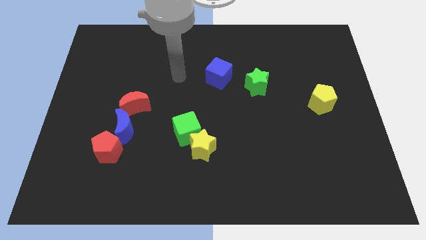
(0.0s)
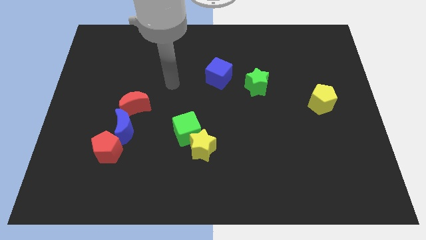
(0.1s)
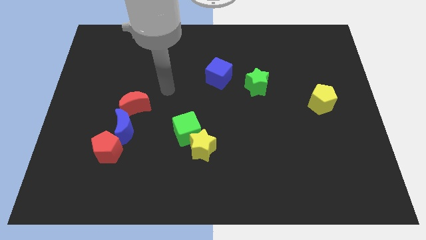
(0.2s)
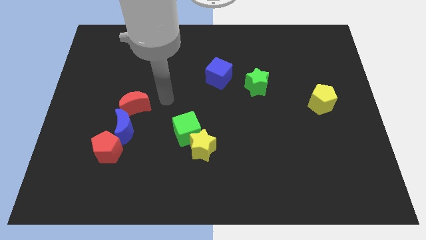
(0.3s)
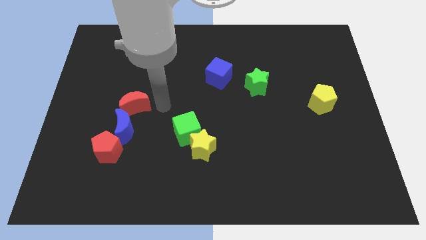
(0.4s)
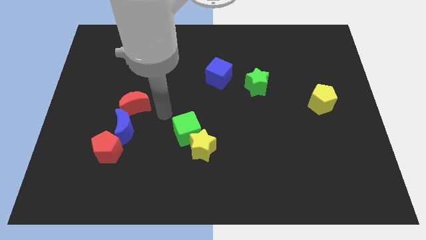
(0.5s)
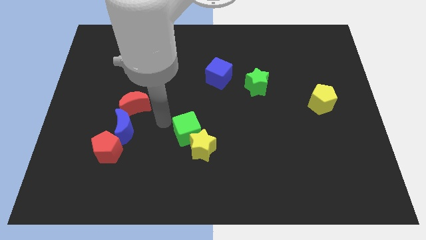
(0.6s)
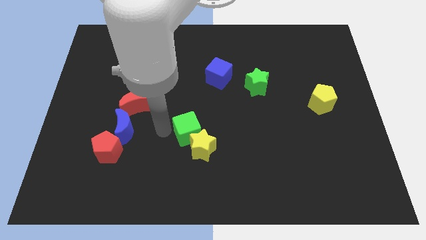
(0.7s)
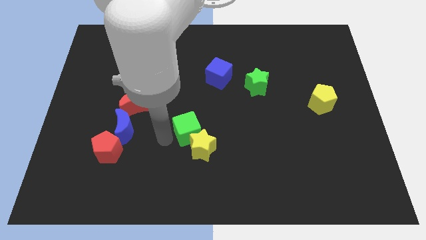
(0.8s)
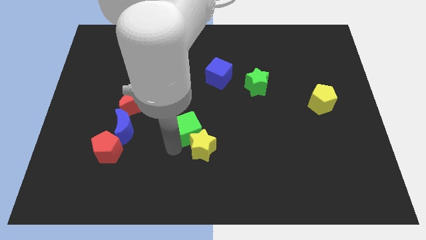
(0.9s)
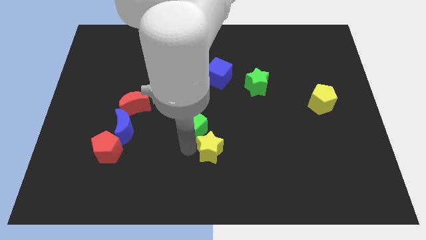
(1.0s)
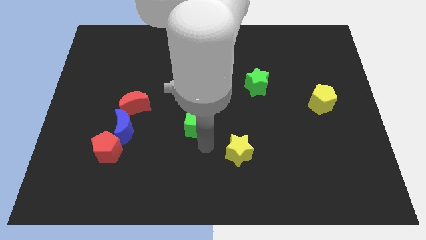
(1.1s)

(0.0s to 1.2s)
separate the green cube from the yellow star

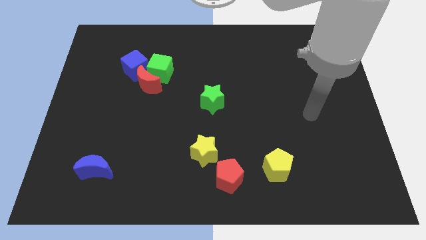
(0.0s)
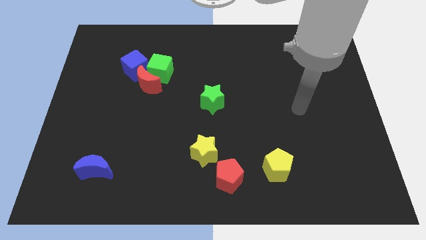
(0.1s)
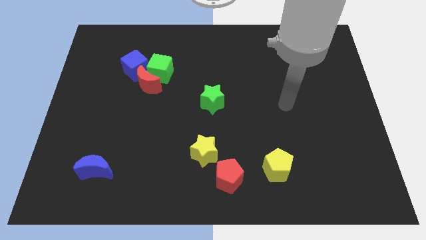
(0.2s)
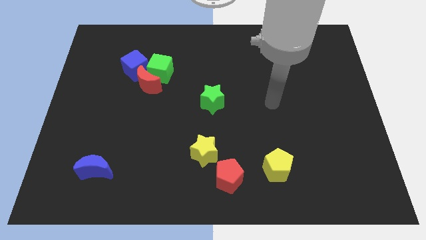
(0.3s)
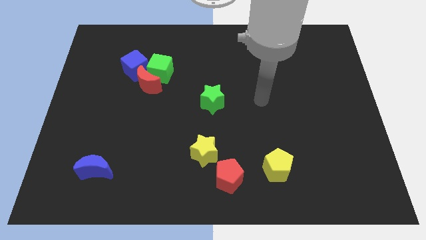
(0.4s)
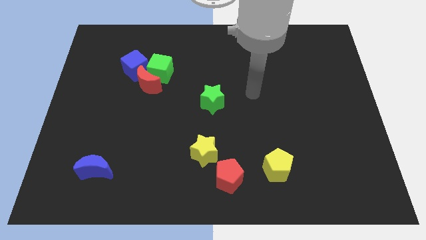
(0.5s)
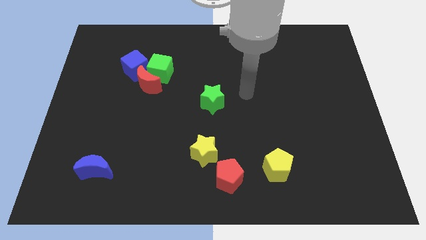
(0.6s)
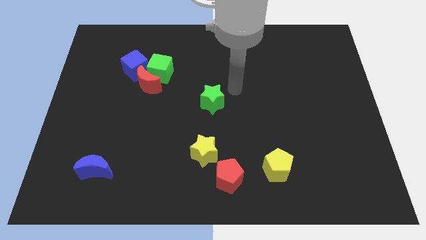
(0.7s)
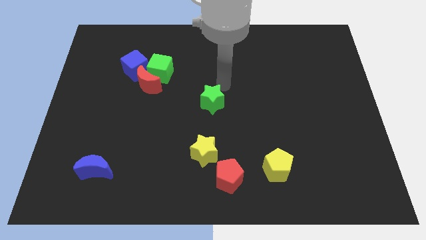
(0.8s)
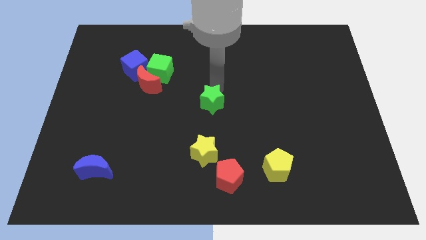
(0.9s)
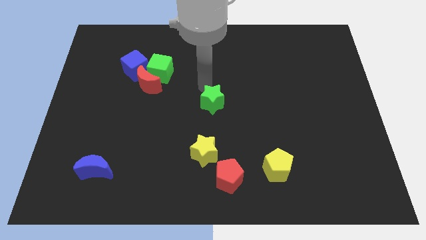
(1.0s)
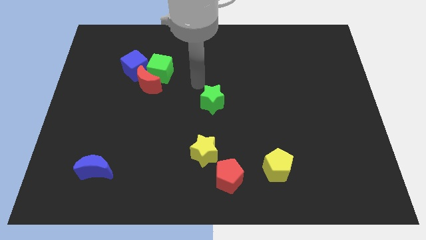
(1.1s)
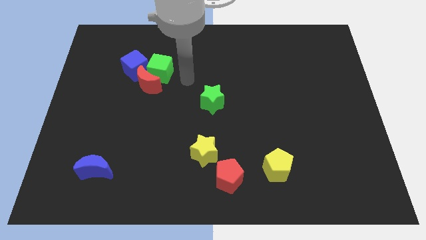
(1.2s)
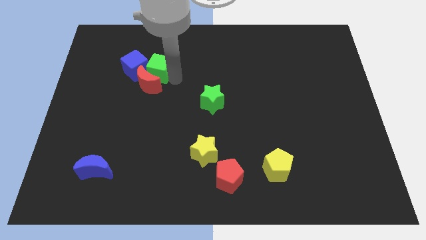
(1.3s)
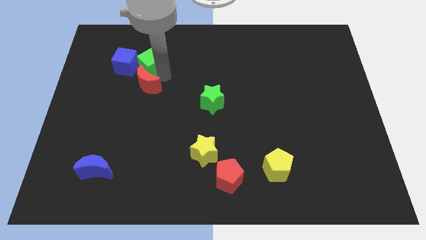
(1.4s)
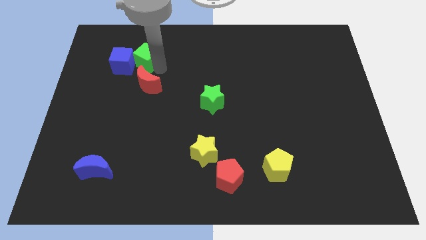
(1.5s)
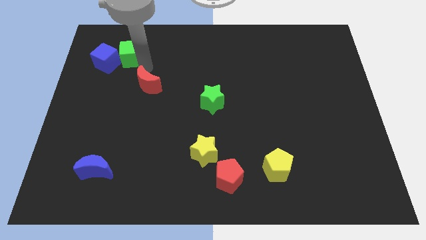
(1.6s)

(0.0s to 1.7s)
pull the red moon apart from the green cube and blue cube

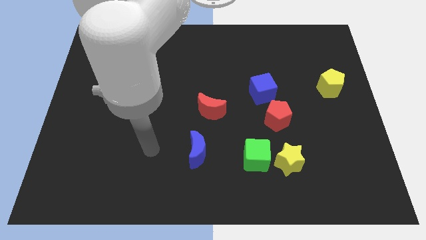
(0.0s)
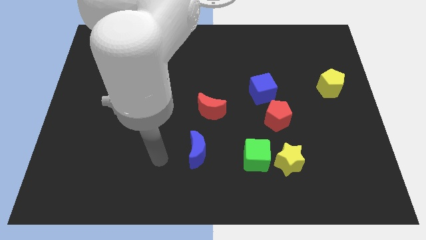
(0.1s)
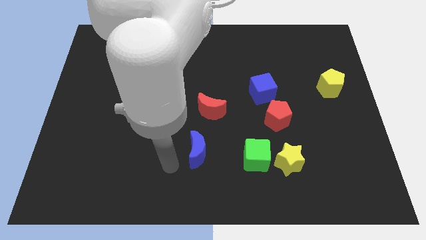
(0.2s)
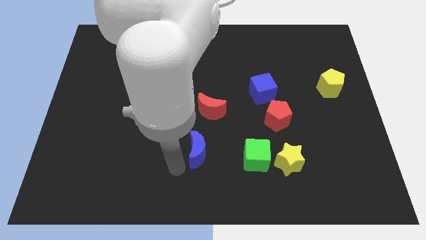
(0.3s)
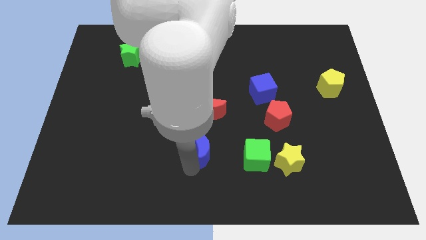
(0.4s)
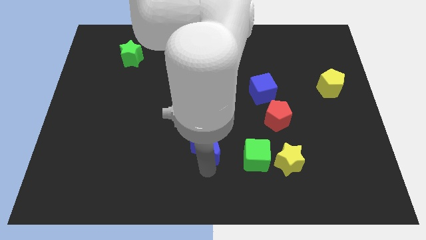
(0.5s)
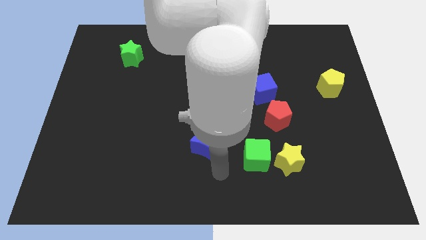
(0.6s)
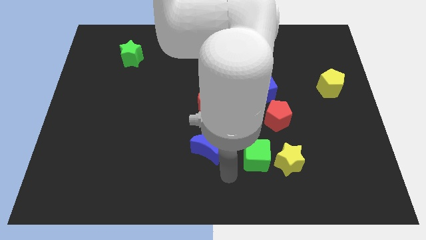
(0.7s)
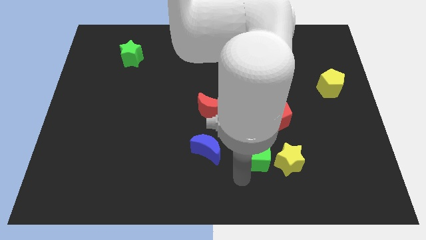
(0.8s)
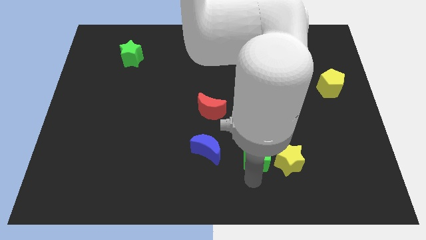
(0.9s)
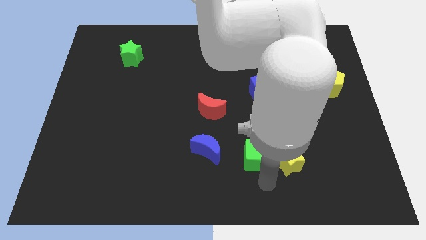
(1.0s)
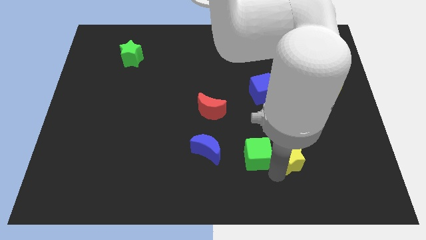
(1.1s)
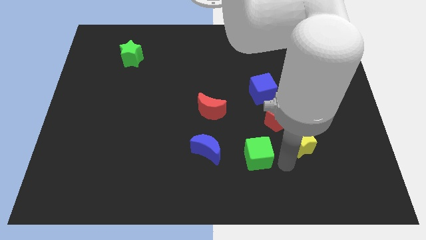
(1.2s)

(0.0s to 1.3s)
pull the green cube apart from the yellow star

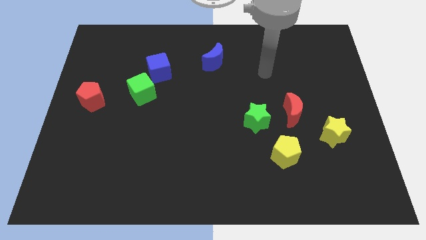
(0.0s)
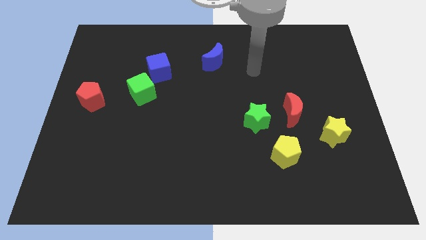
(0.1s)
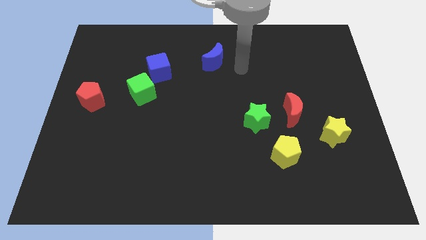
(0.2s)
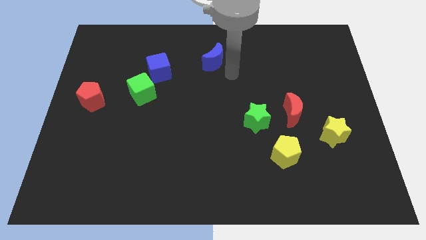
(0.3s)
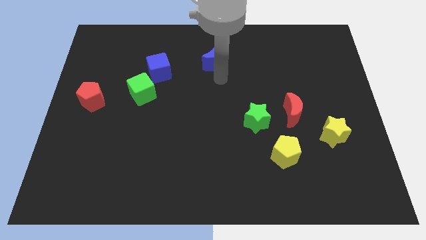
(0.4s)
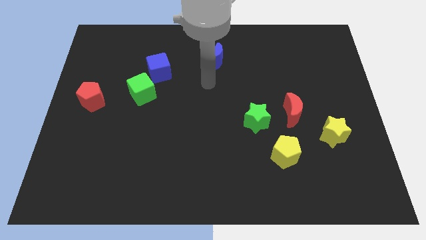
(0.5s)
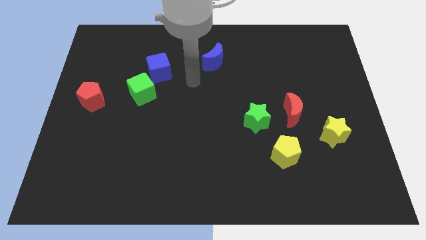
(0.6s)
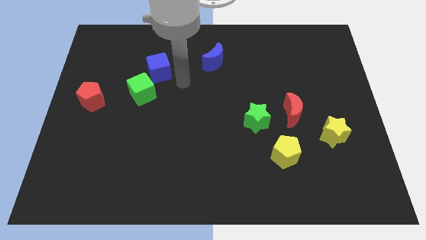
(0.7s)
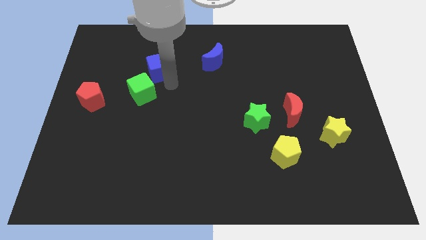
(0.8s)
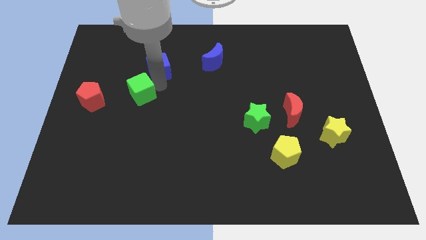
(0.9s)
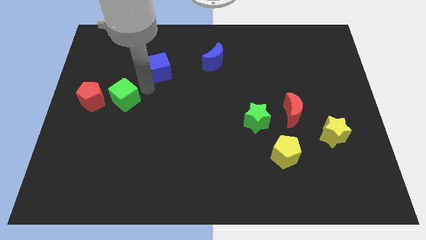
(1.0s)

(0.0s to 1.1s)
separate the blue cube from the green cube

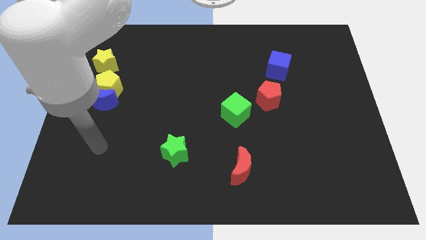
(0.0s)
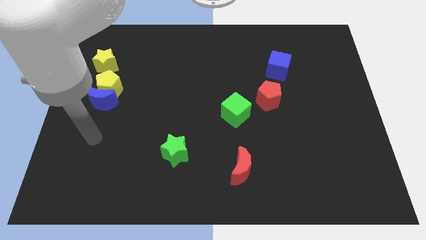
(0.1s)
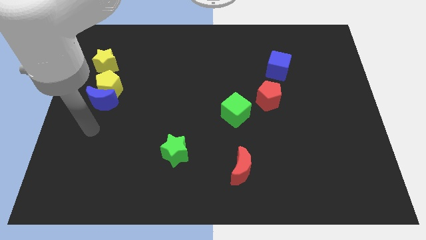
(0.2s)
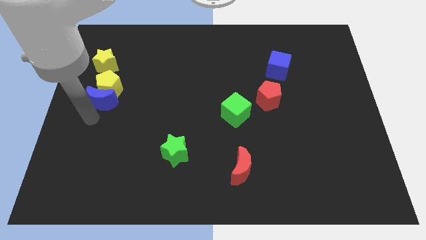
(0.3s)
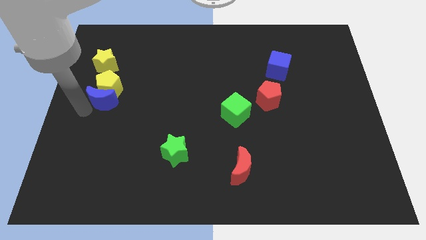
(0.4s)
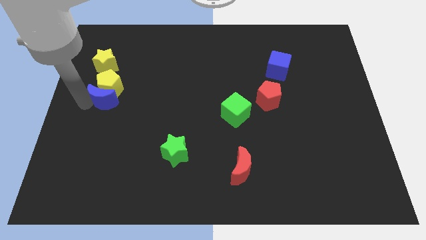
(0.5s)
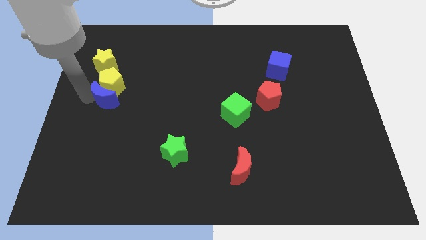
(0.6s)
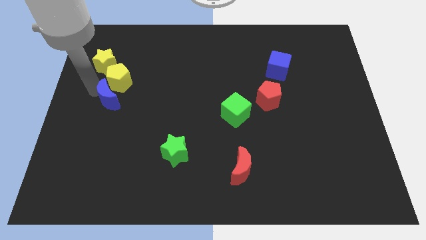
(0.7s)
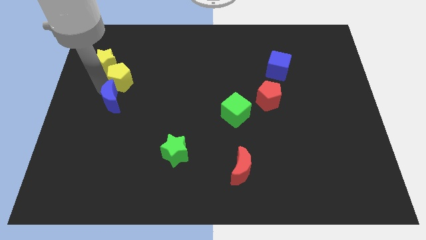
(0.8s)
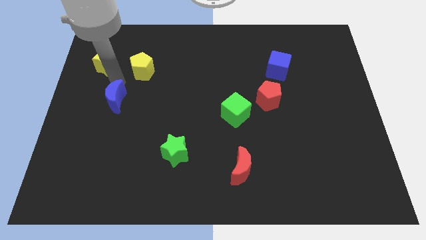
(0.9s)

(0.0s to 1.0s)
pull the blue moon apart from the yellow pentagon

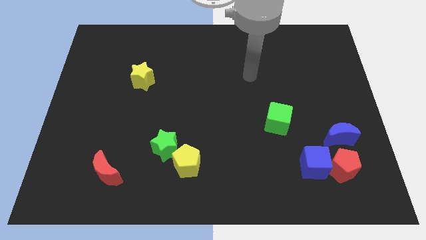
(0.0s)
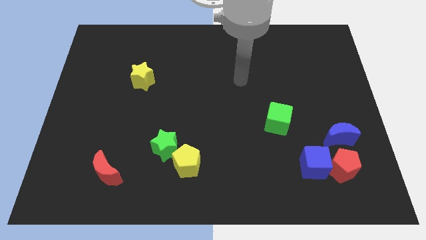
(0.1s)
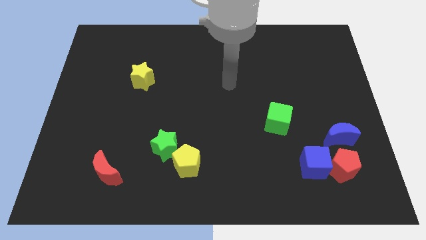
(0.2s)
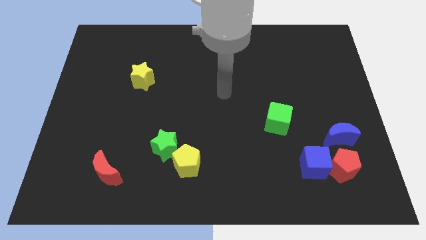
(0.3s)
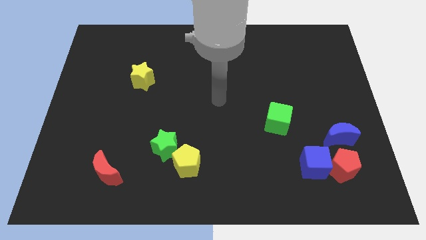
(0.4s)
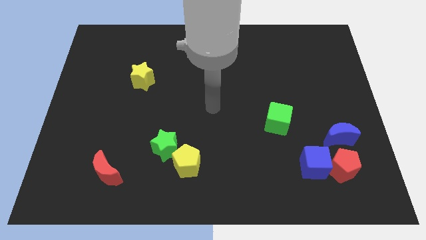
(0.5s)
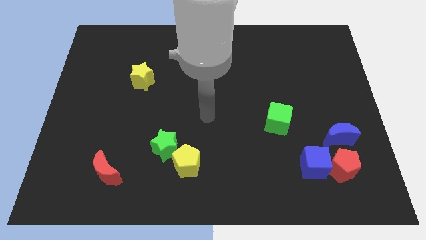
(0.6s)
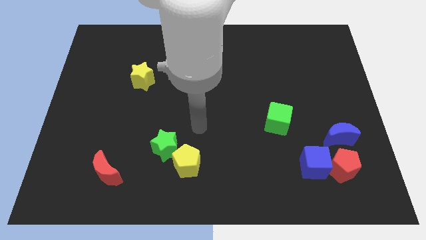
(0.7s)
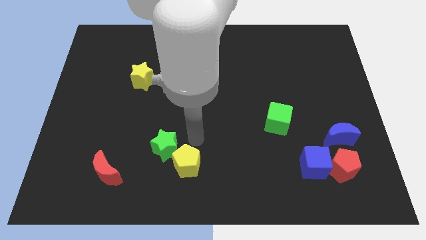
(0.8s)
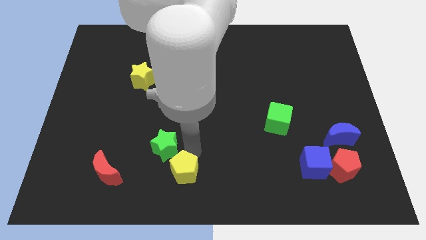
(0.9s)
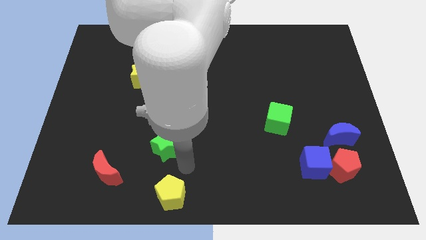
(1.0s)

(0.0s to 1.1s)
pull the green star apart from the yellow pentagon

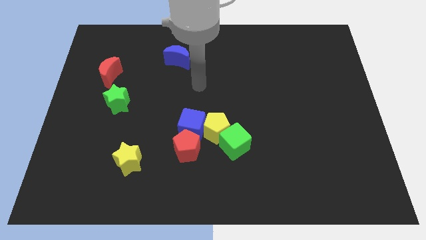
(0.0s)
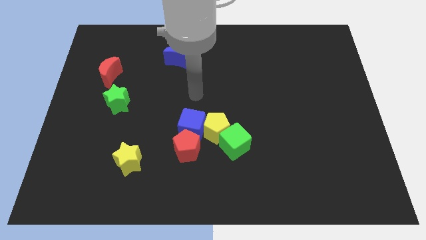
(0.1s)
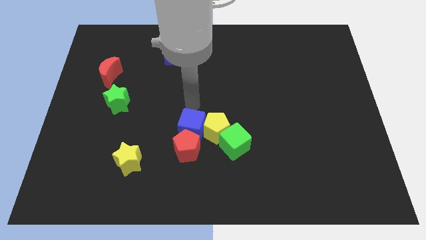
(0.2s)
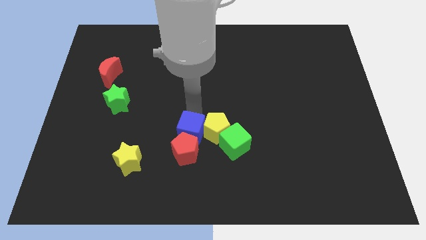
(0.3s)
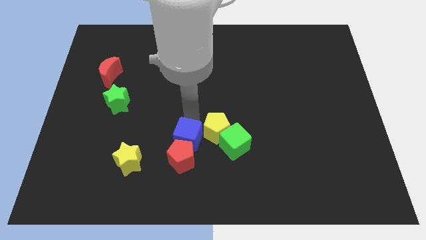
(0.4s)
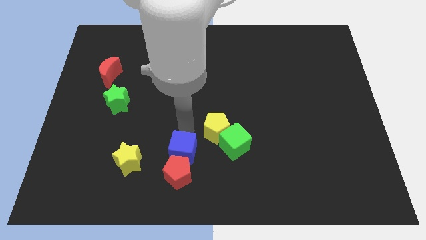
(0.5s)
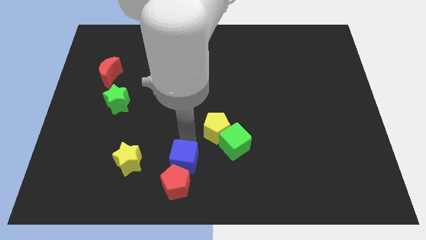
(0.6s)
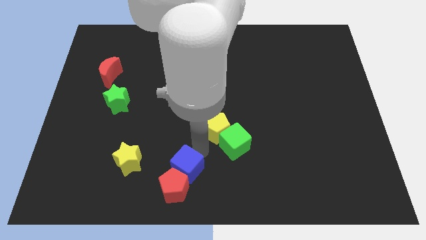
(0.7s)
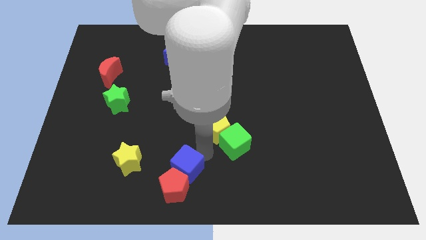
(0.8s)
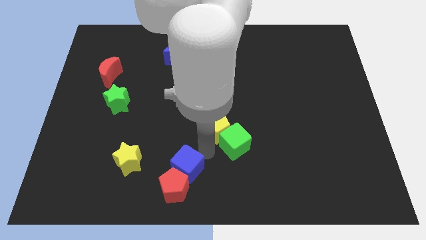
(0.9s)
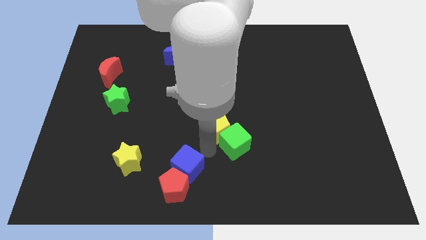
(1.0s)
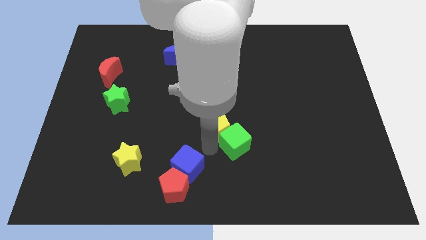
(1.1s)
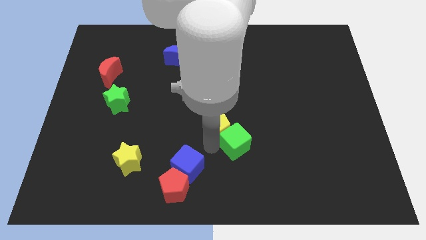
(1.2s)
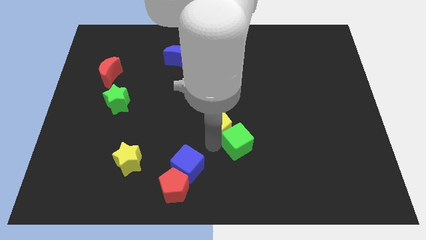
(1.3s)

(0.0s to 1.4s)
pull the yellow pentagon apart from the green cube, blue cube, and red pentagon

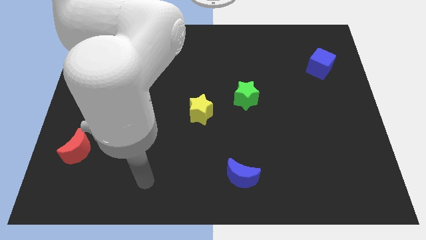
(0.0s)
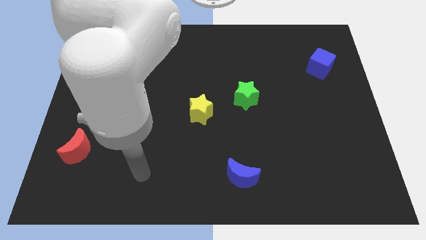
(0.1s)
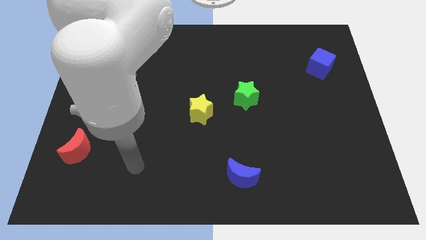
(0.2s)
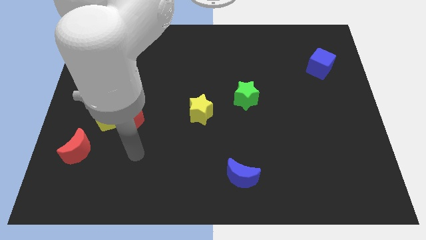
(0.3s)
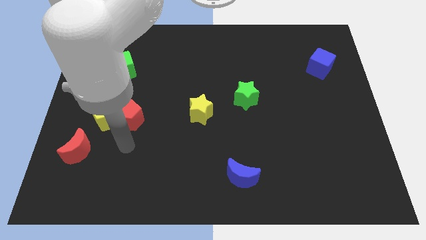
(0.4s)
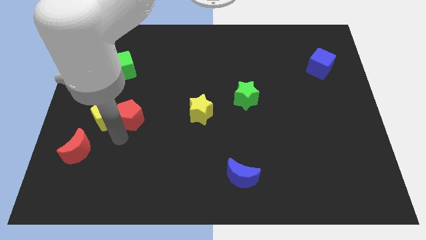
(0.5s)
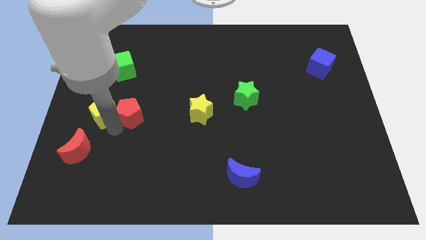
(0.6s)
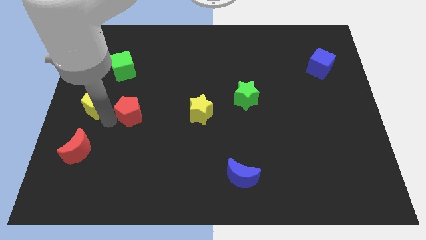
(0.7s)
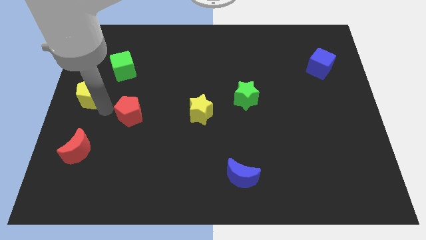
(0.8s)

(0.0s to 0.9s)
pull the red pentagon apart from the yellow pentagon
